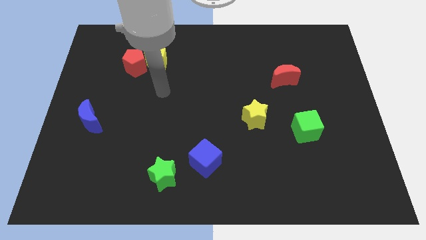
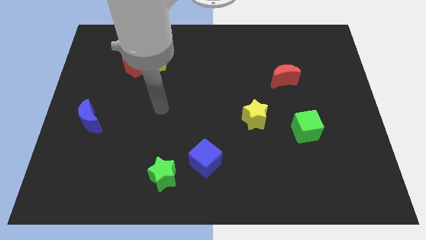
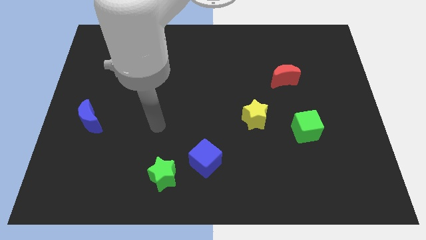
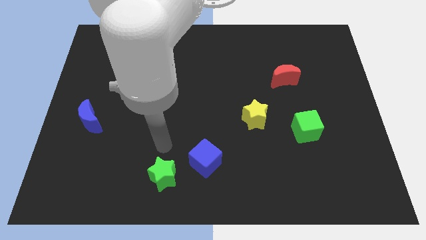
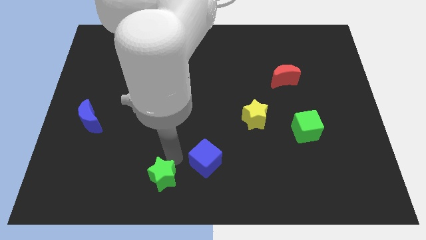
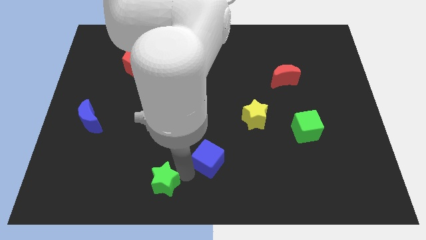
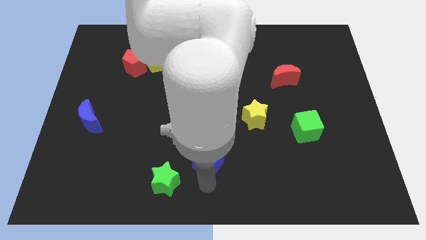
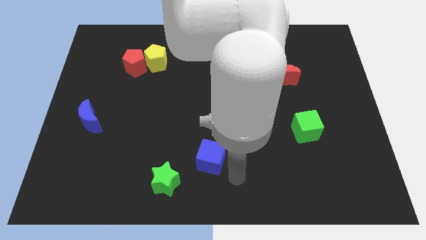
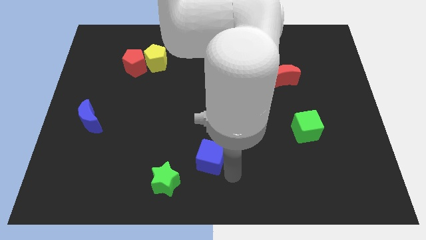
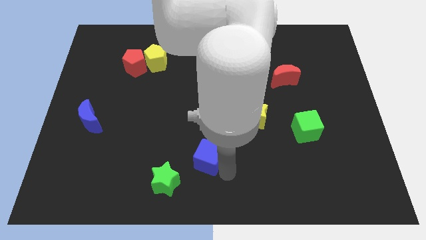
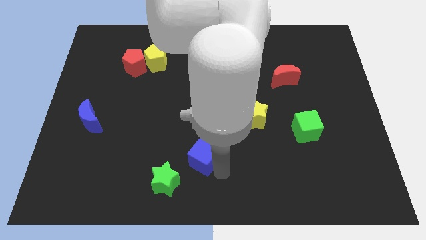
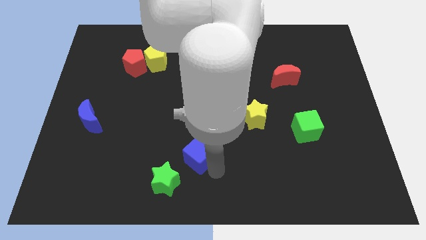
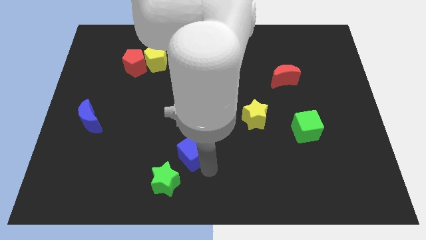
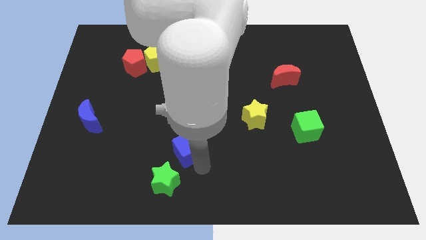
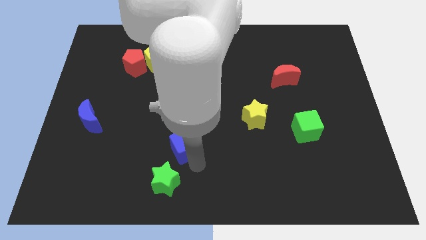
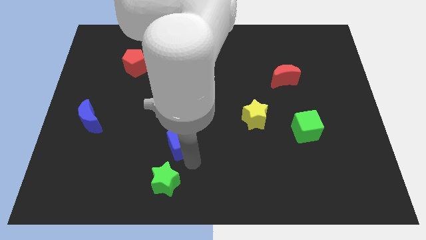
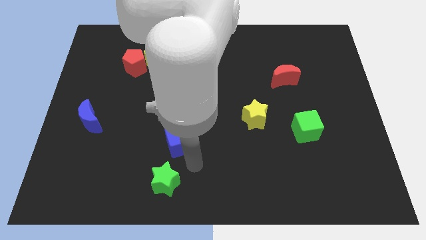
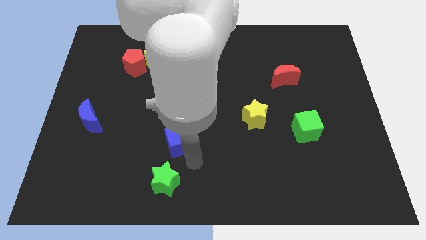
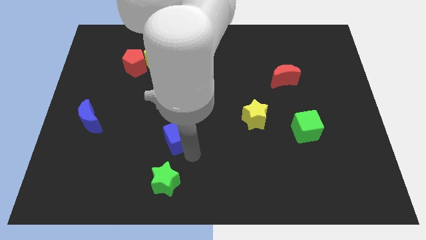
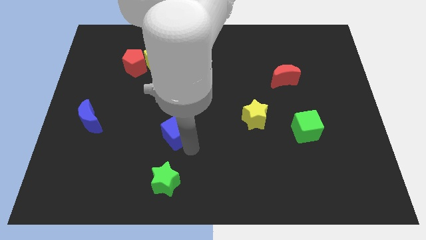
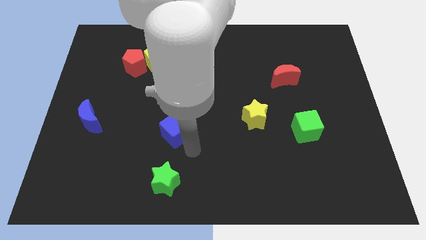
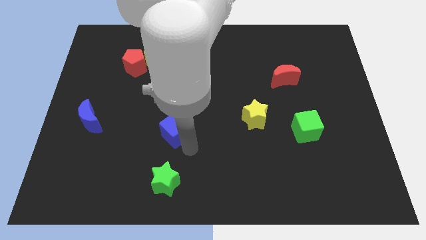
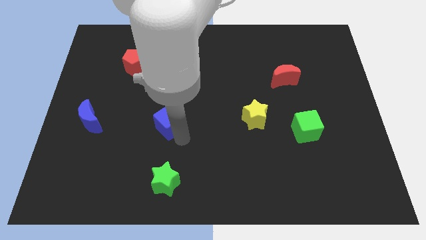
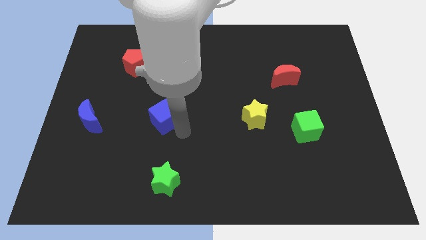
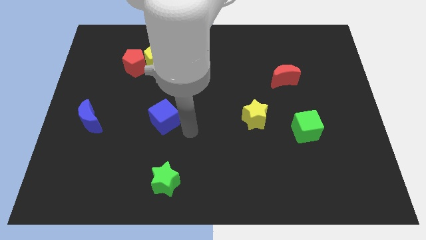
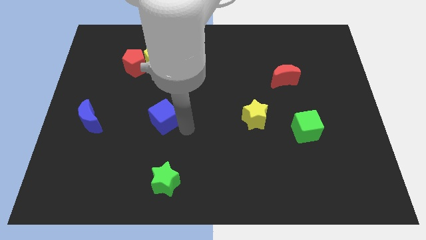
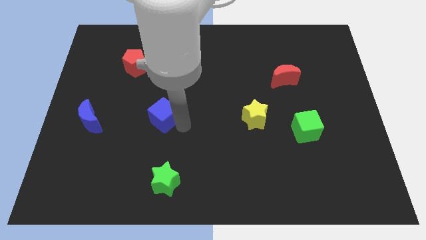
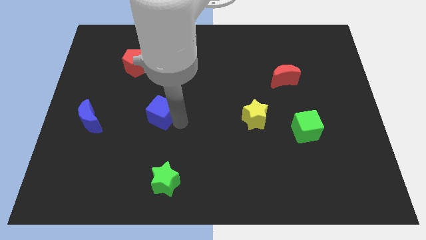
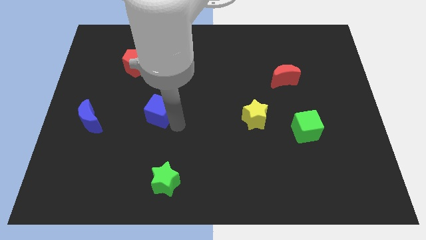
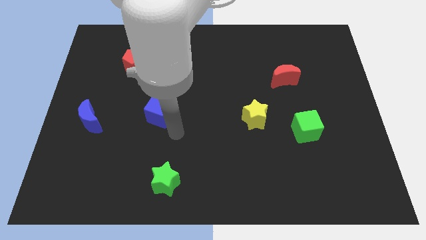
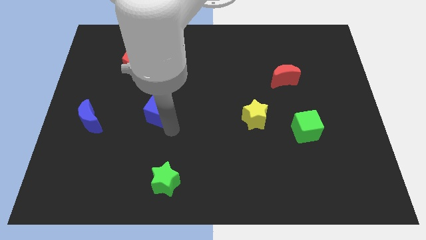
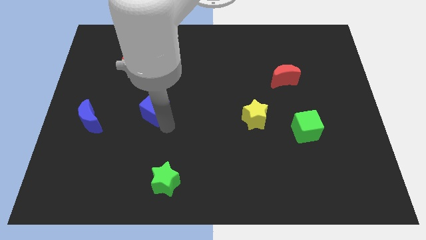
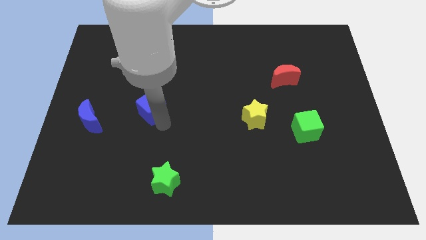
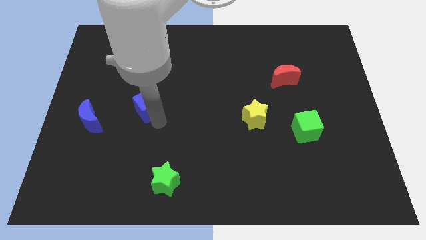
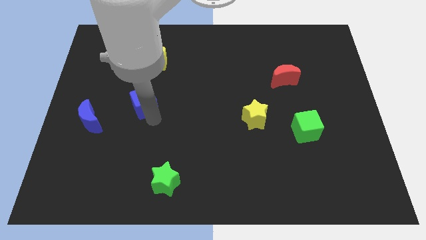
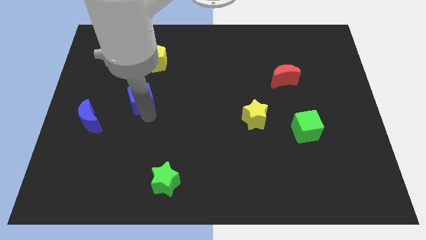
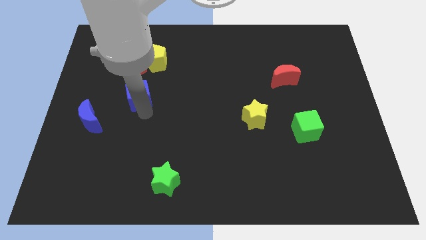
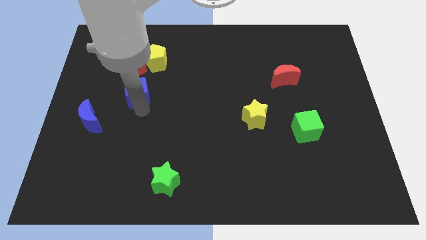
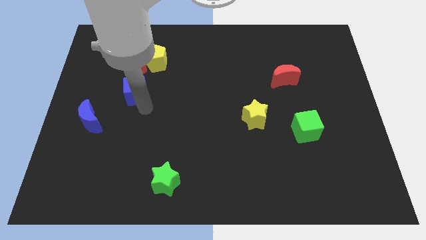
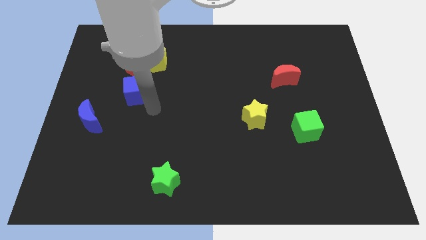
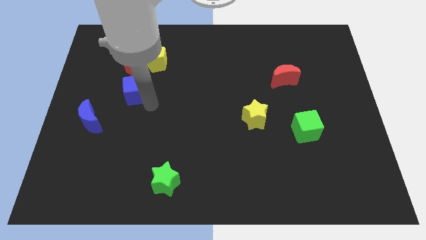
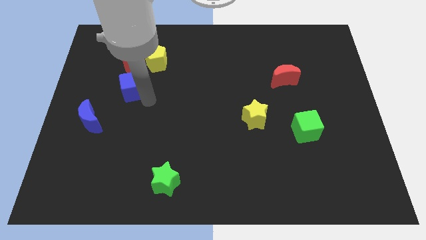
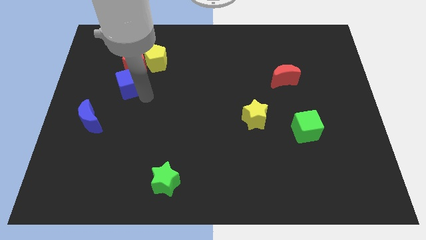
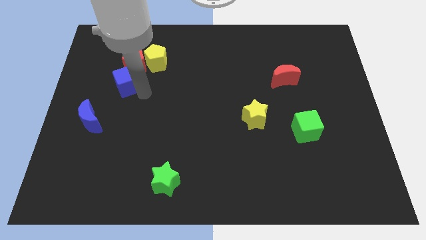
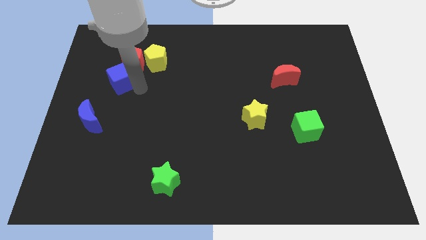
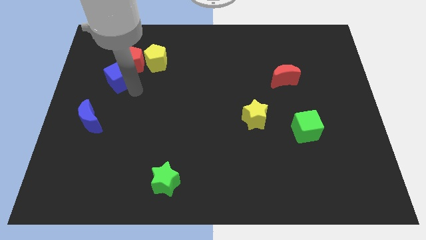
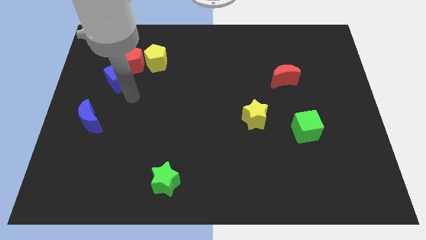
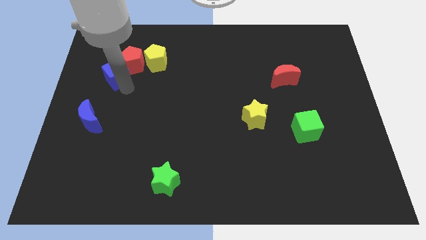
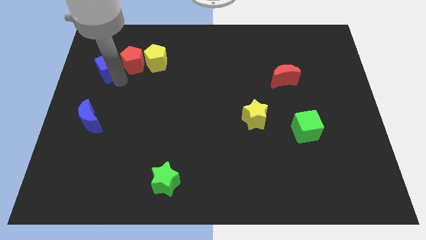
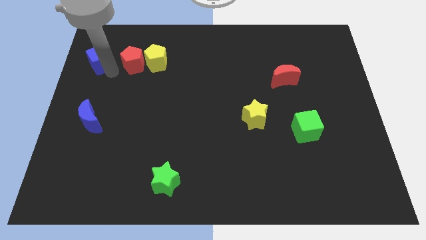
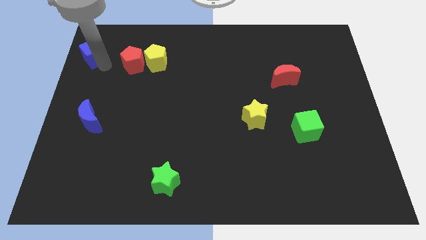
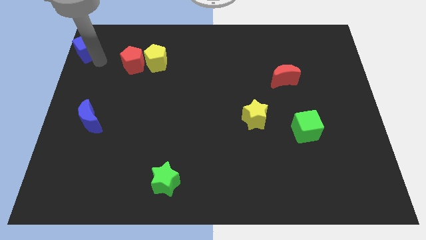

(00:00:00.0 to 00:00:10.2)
put the blue cube to the top left

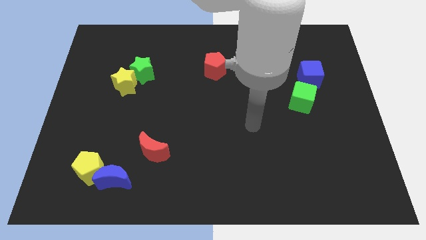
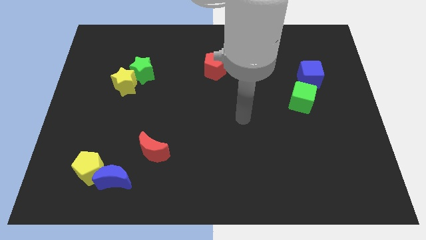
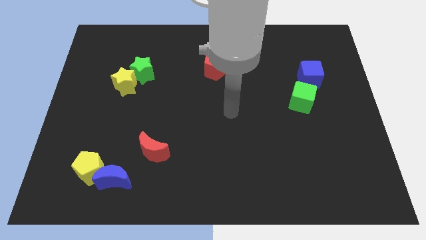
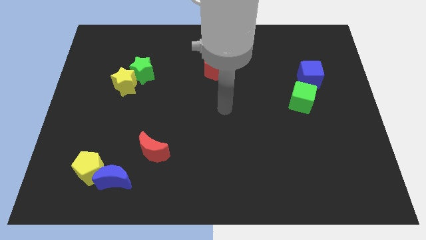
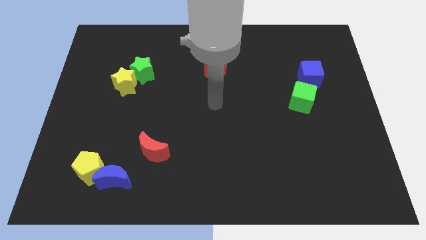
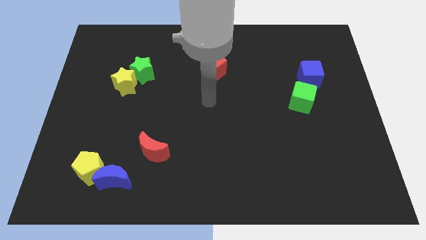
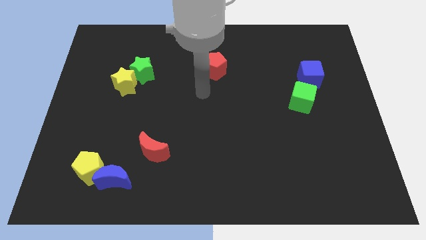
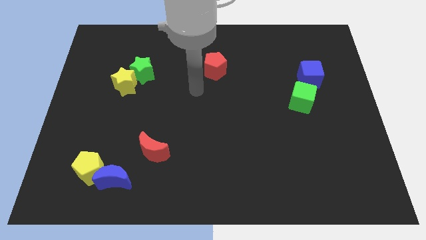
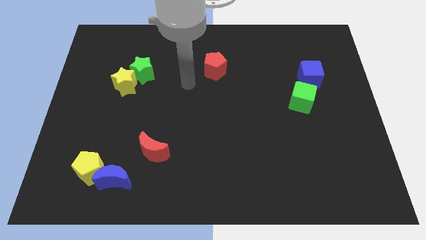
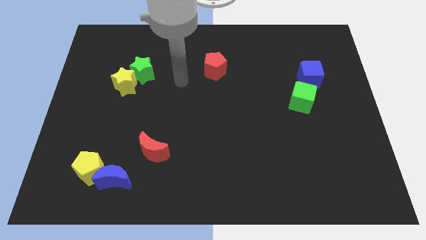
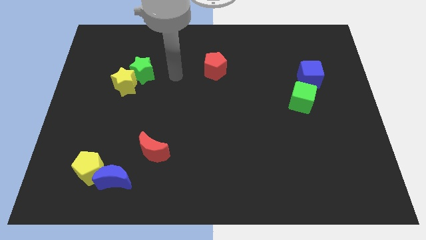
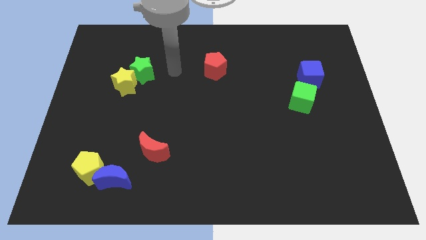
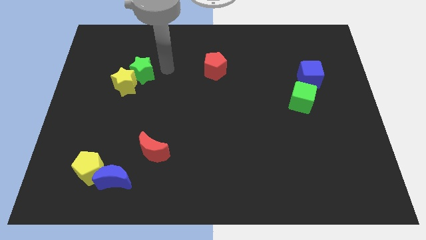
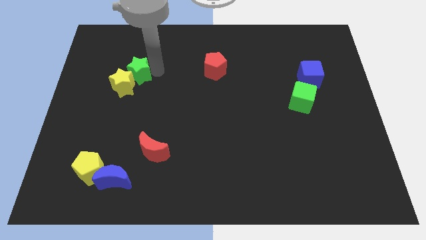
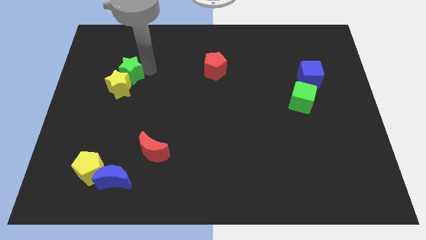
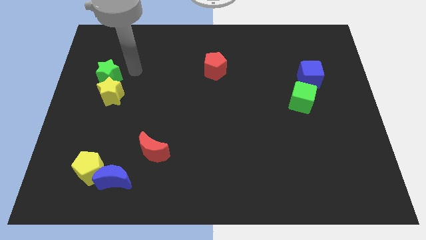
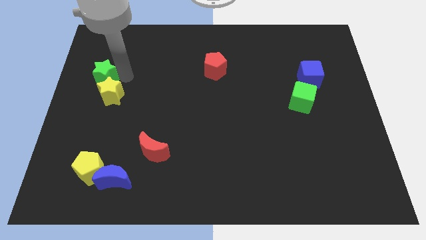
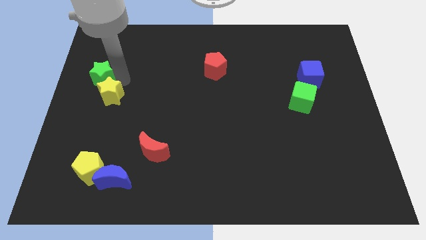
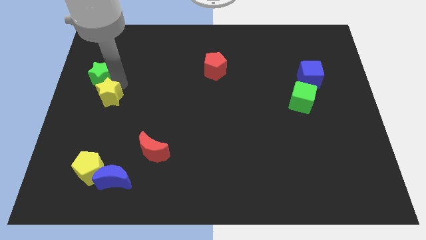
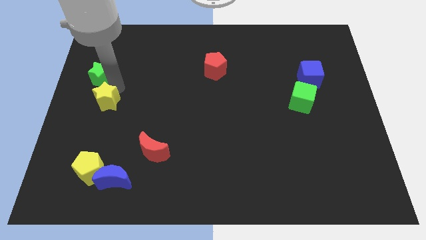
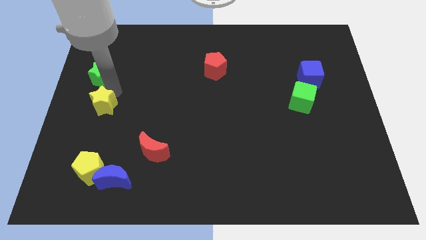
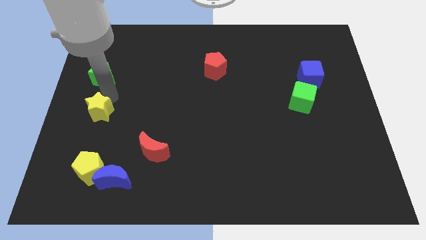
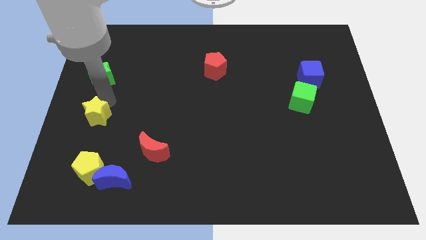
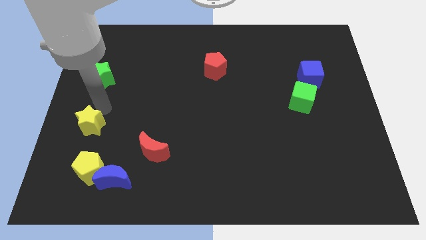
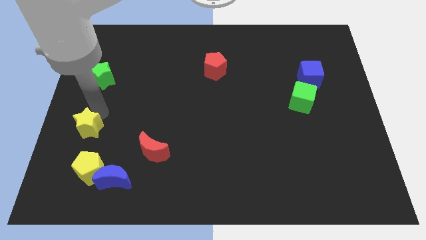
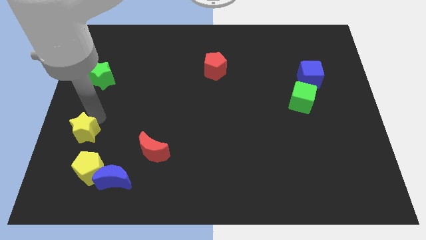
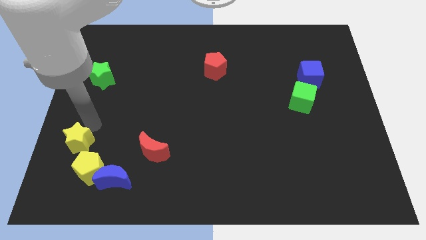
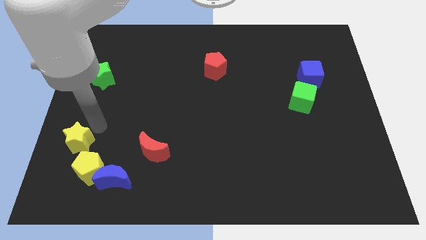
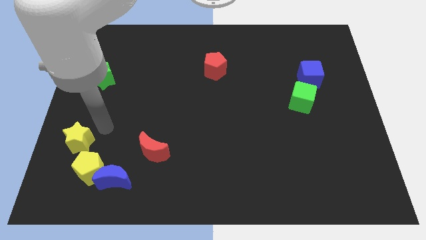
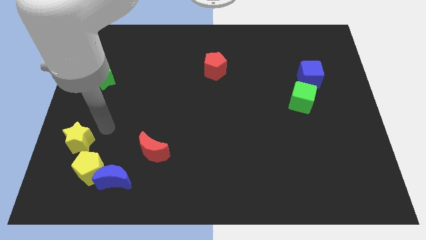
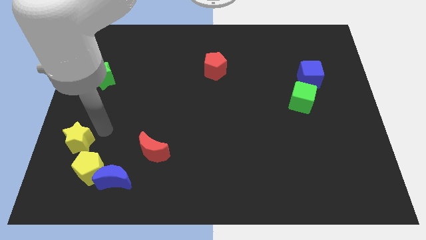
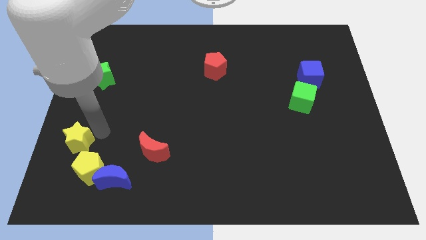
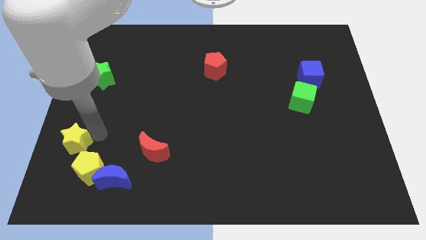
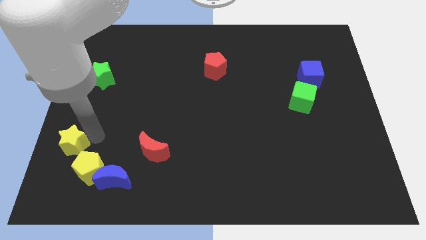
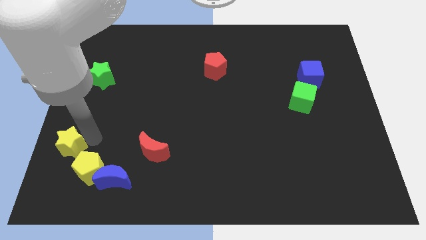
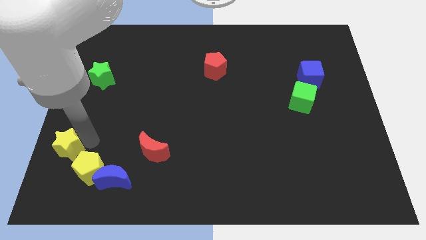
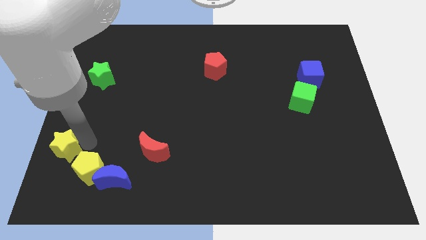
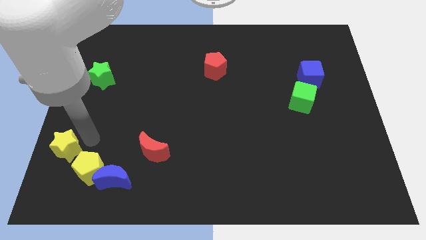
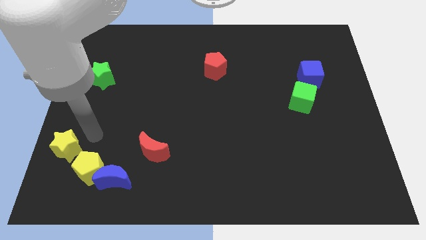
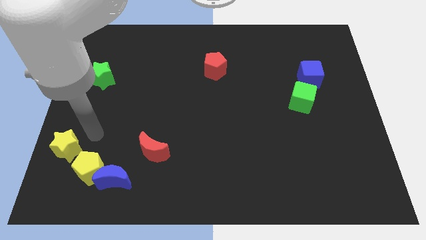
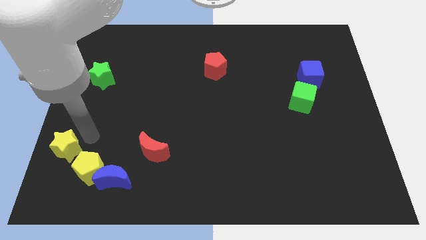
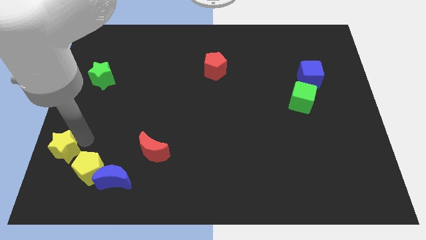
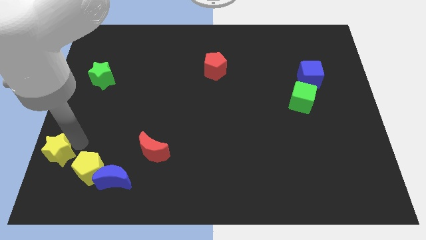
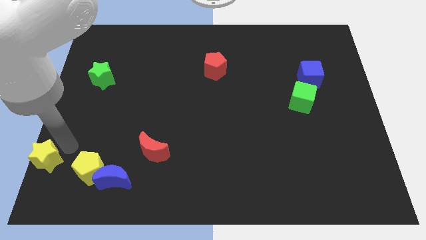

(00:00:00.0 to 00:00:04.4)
move the yellow star to the bottom left corner
